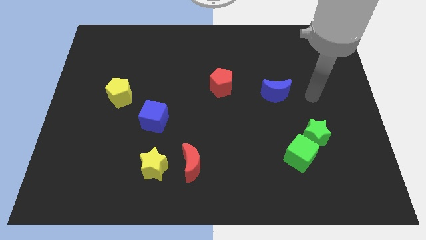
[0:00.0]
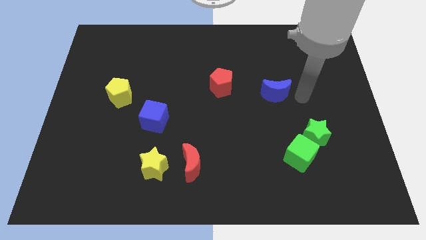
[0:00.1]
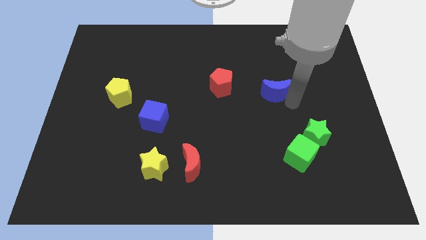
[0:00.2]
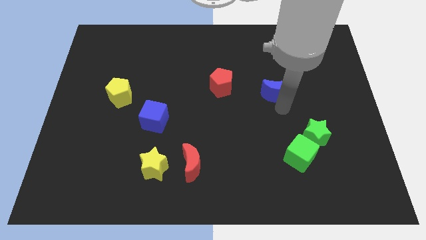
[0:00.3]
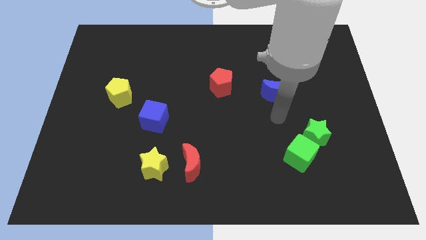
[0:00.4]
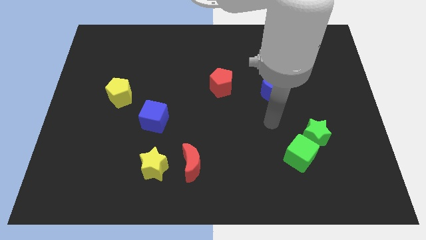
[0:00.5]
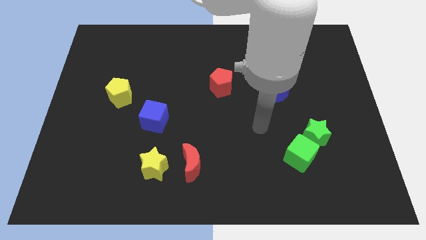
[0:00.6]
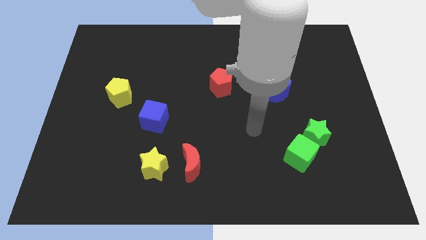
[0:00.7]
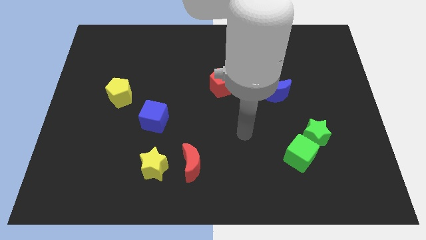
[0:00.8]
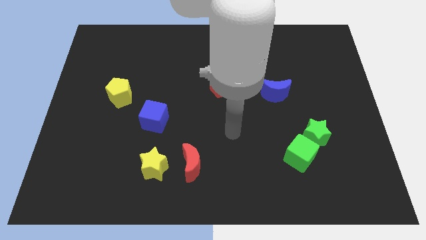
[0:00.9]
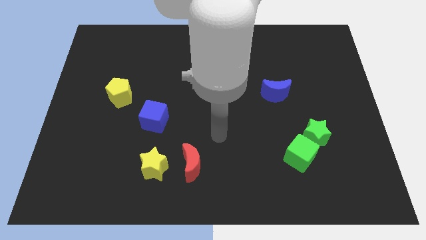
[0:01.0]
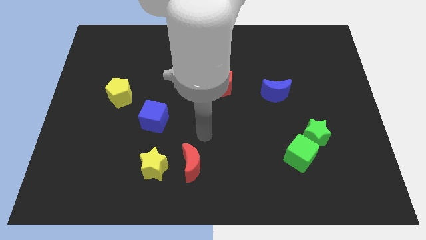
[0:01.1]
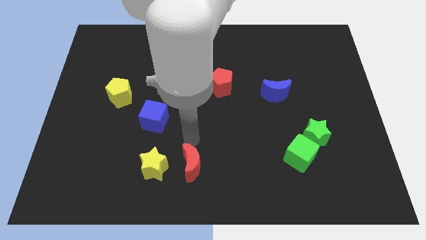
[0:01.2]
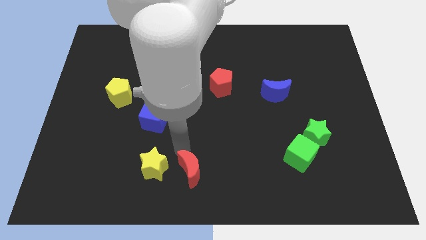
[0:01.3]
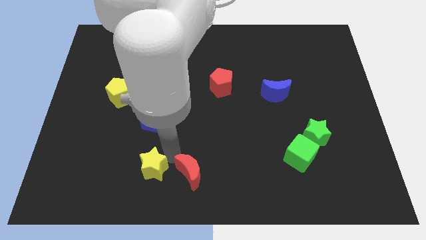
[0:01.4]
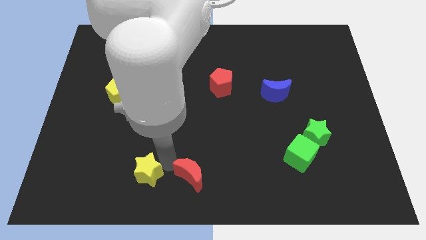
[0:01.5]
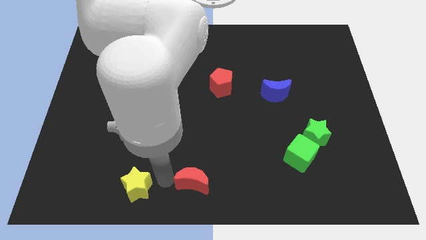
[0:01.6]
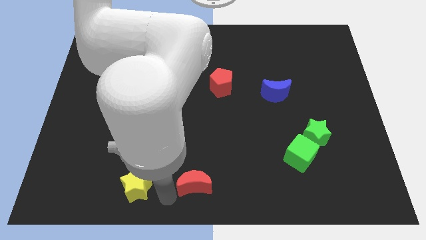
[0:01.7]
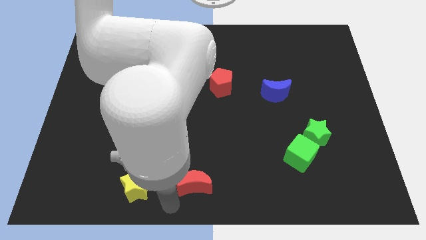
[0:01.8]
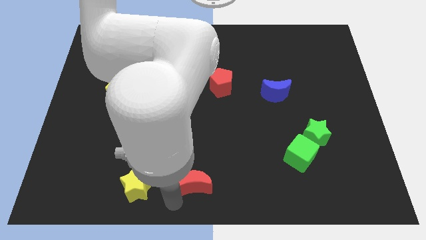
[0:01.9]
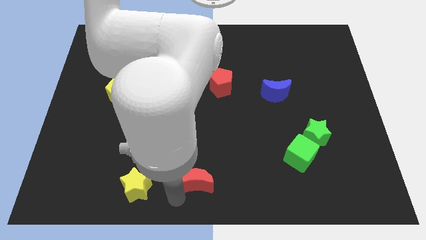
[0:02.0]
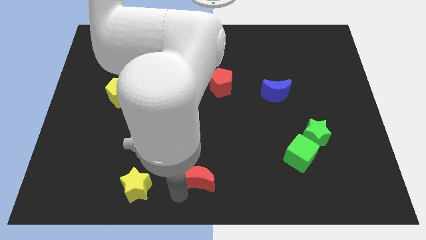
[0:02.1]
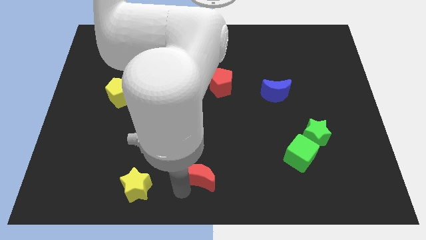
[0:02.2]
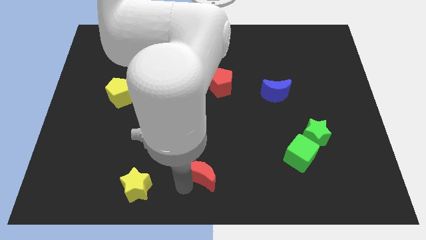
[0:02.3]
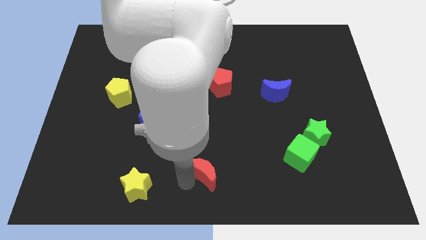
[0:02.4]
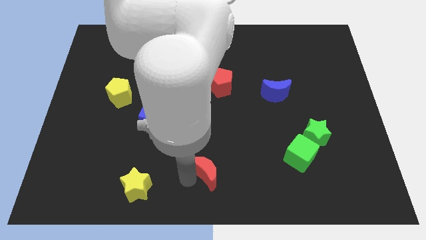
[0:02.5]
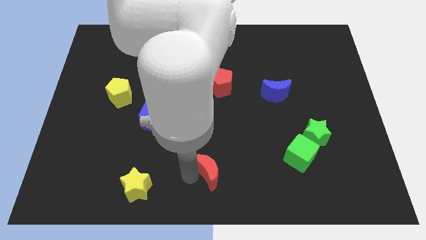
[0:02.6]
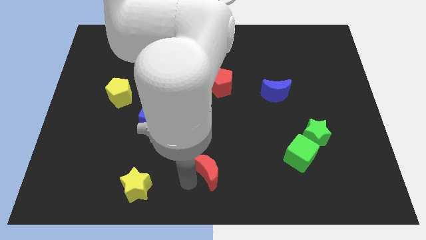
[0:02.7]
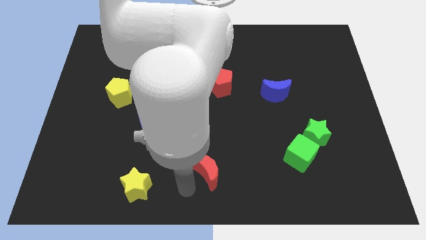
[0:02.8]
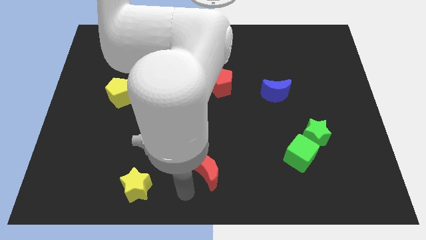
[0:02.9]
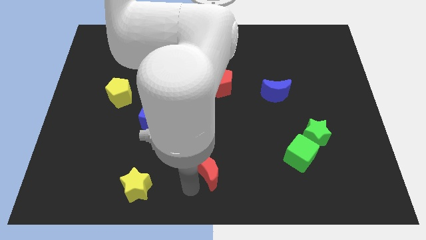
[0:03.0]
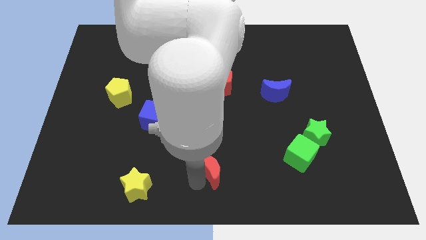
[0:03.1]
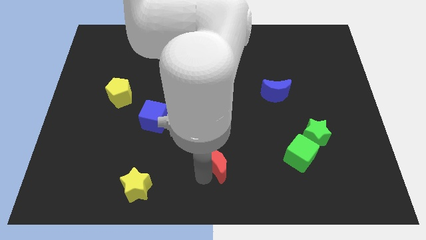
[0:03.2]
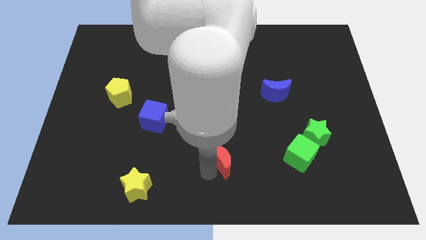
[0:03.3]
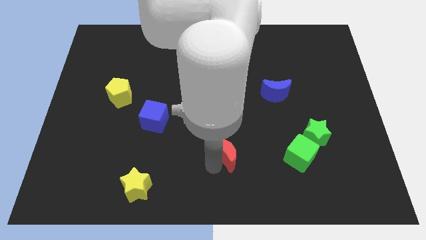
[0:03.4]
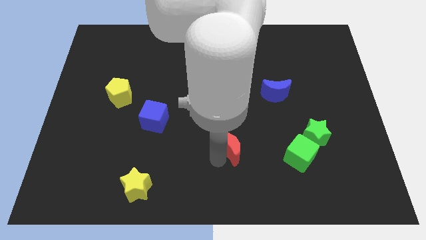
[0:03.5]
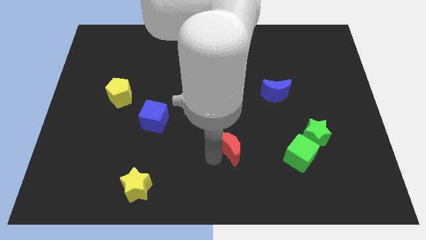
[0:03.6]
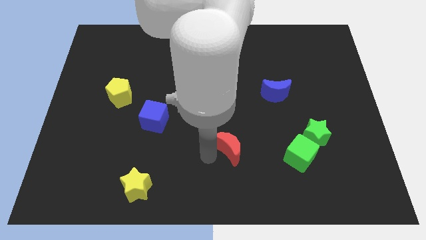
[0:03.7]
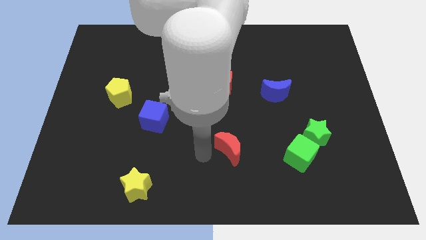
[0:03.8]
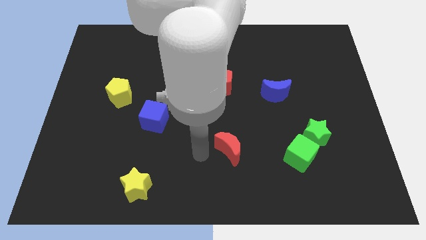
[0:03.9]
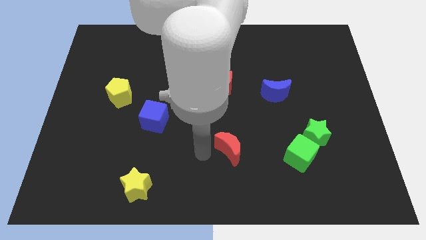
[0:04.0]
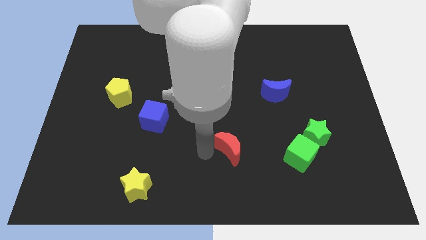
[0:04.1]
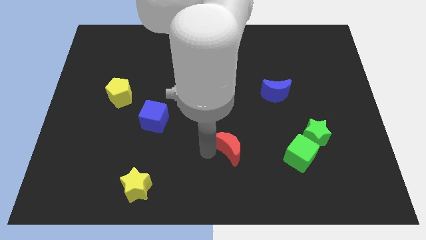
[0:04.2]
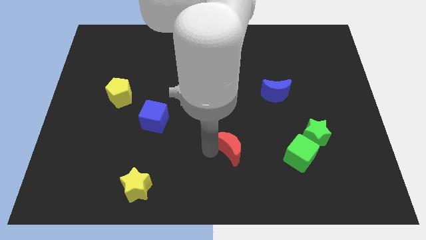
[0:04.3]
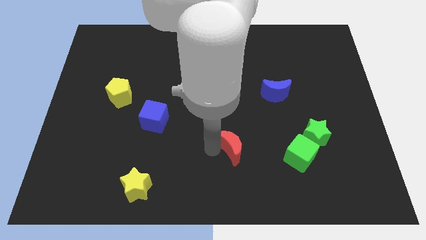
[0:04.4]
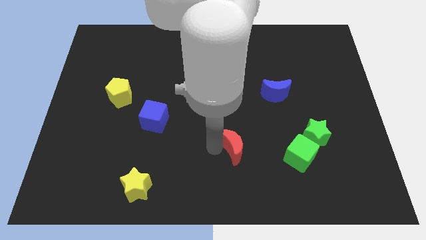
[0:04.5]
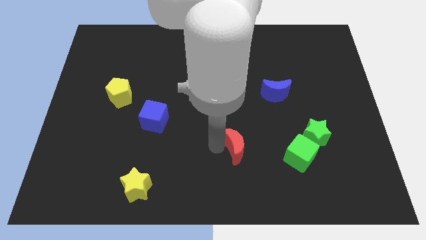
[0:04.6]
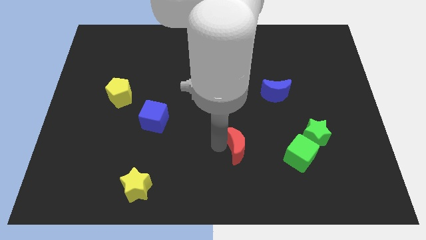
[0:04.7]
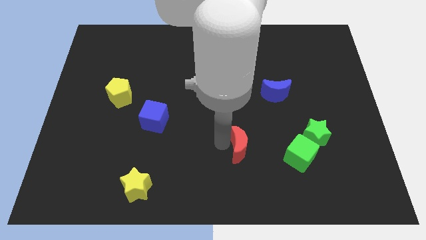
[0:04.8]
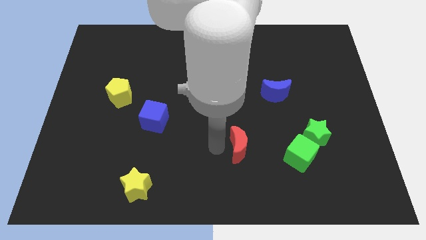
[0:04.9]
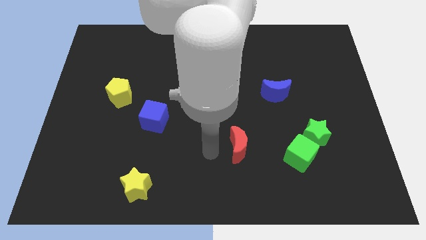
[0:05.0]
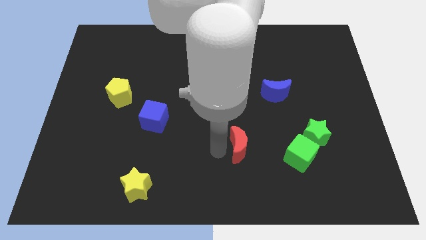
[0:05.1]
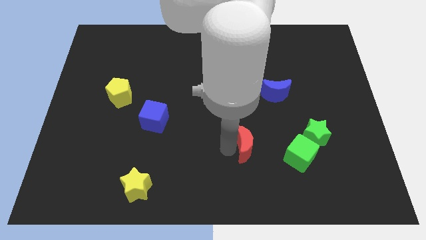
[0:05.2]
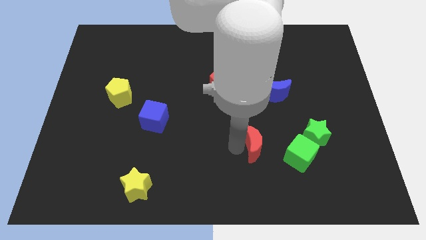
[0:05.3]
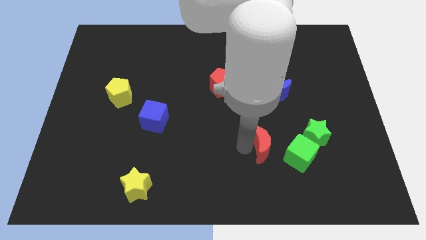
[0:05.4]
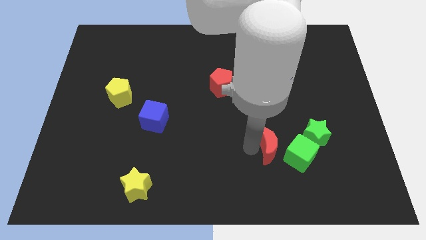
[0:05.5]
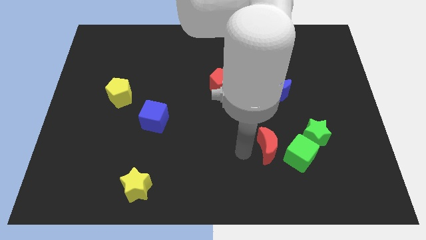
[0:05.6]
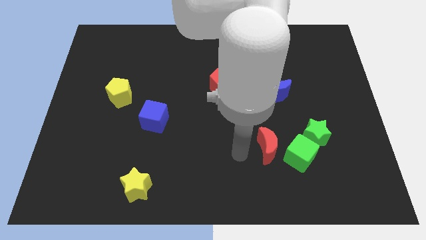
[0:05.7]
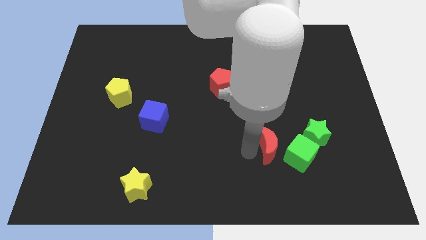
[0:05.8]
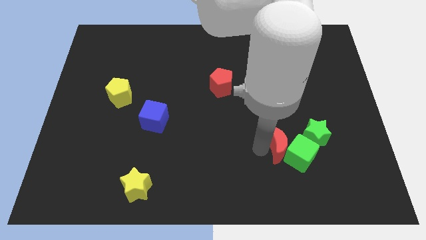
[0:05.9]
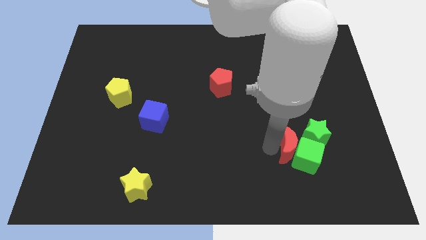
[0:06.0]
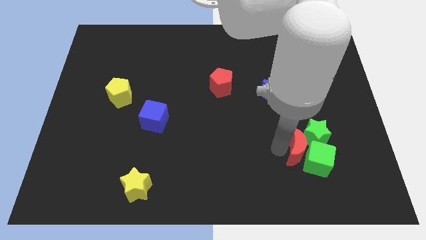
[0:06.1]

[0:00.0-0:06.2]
slide the red moon towards the green star
